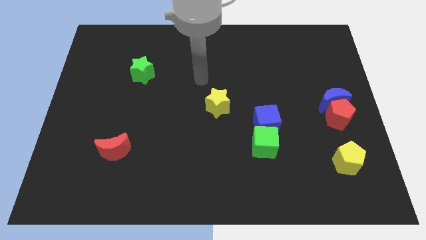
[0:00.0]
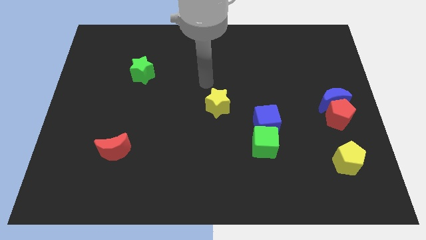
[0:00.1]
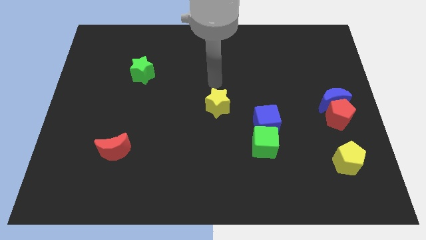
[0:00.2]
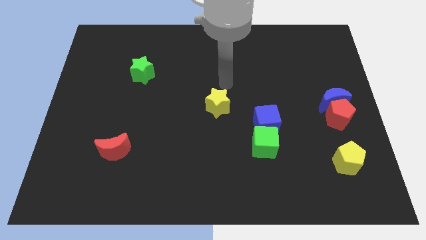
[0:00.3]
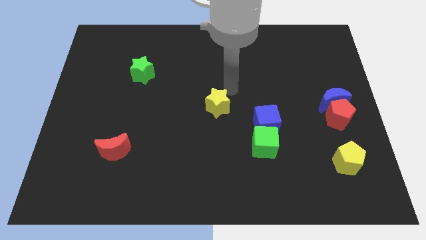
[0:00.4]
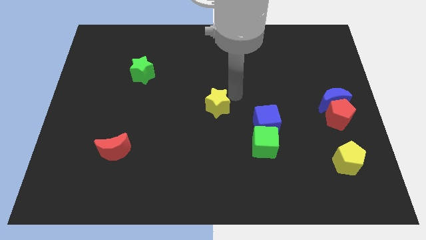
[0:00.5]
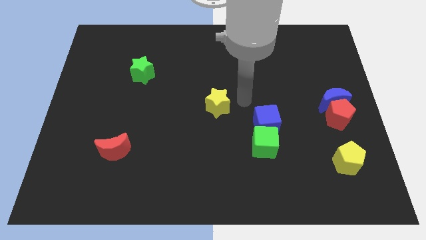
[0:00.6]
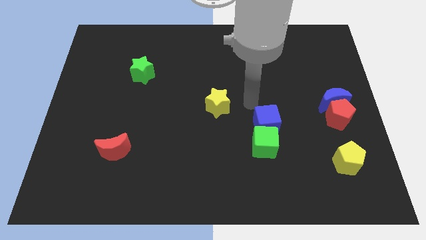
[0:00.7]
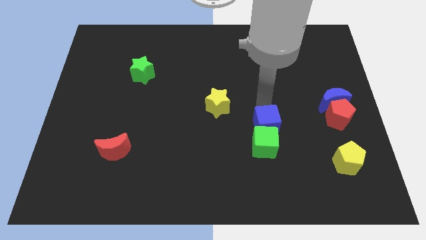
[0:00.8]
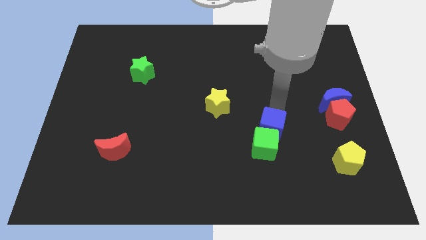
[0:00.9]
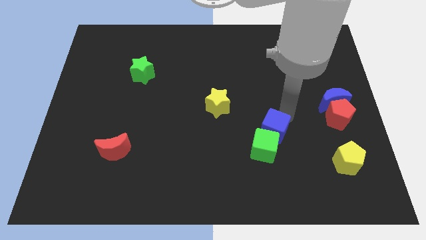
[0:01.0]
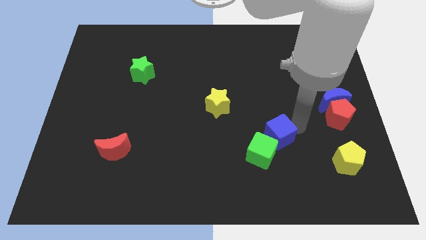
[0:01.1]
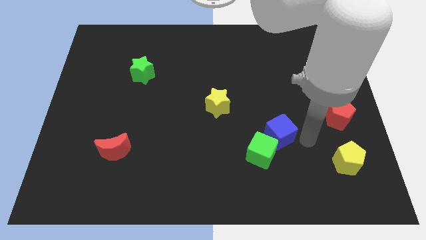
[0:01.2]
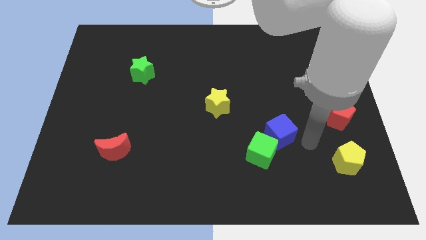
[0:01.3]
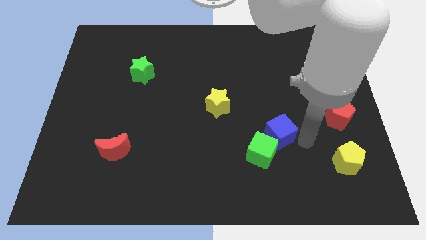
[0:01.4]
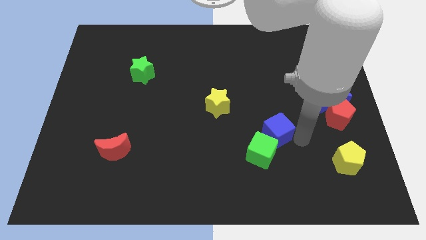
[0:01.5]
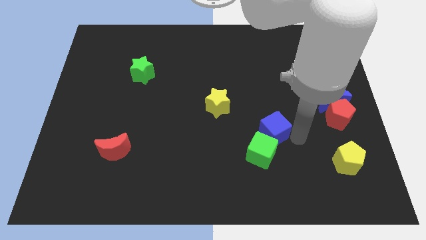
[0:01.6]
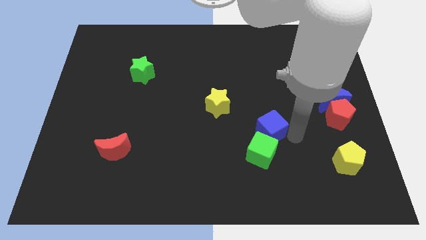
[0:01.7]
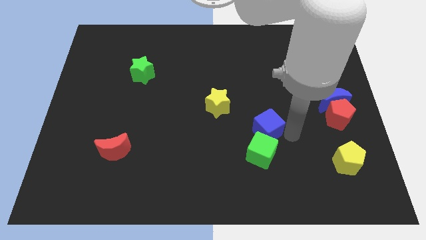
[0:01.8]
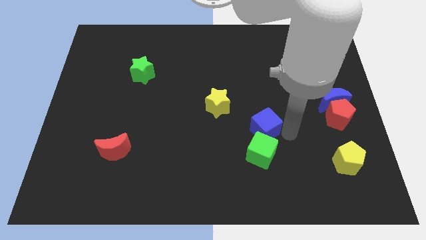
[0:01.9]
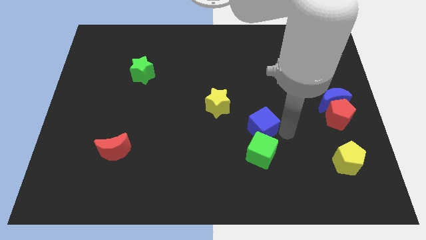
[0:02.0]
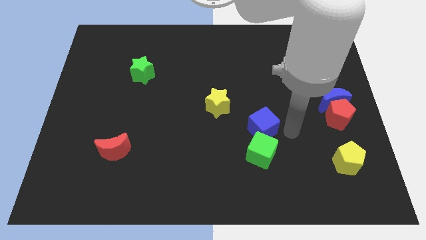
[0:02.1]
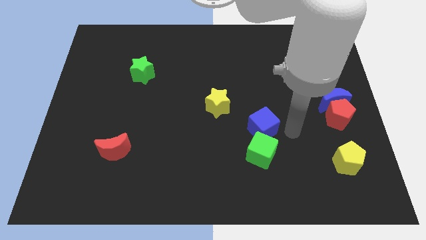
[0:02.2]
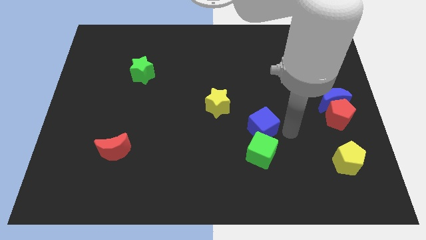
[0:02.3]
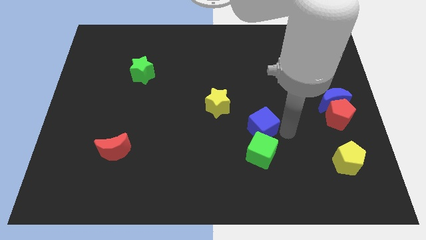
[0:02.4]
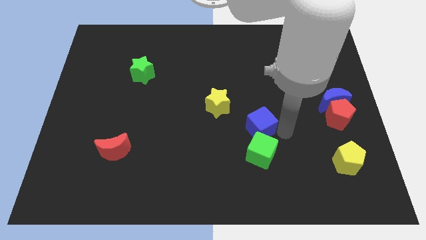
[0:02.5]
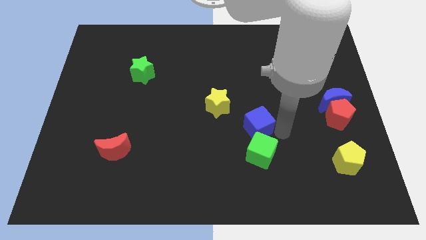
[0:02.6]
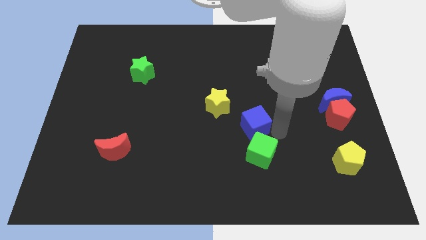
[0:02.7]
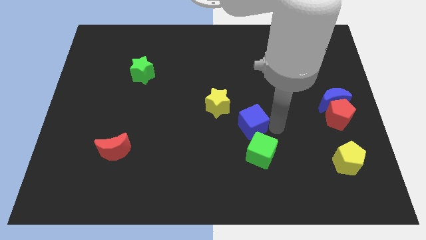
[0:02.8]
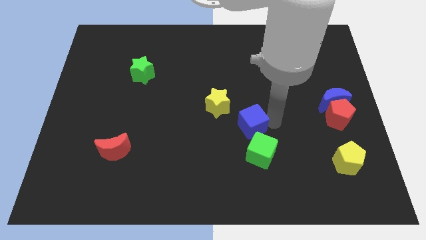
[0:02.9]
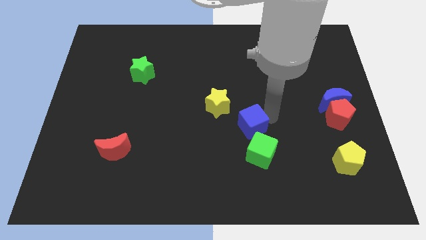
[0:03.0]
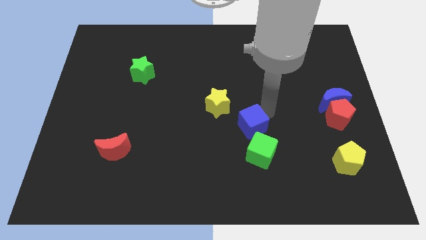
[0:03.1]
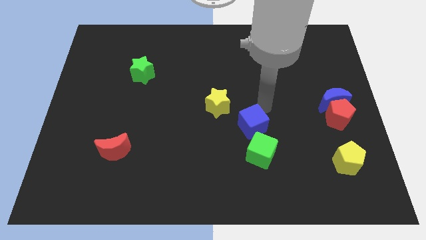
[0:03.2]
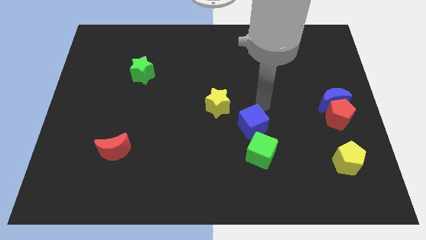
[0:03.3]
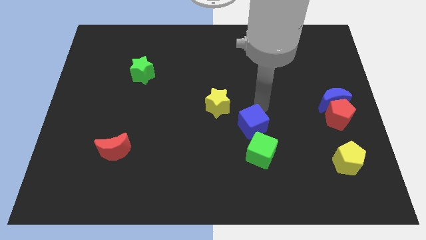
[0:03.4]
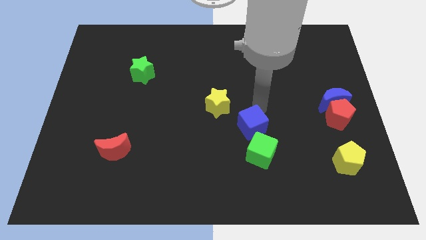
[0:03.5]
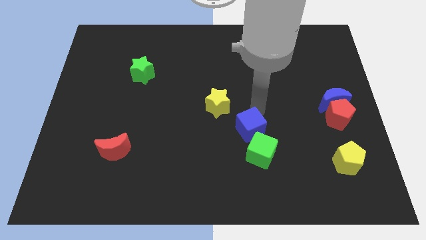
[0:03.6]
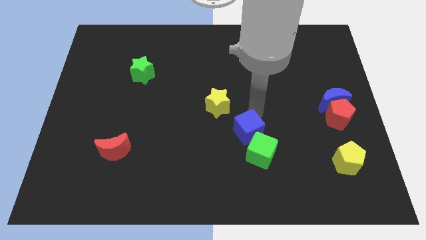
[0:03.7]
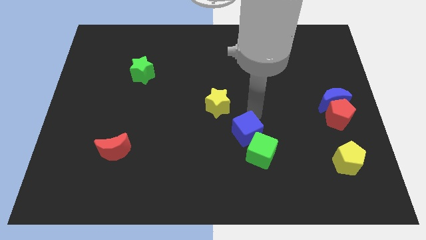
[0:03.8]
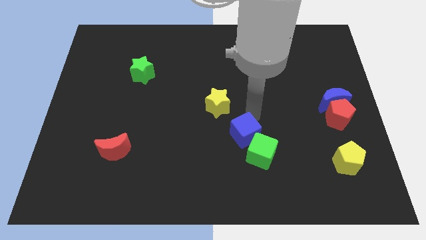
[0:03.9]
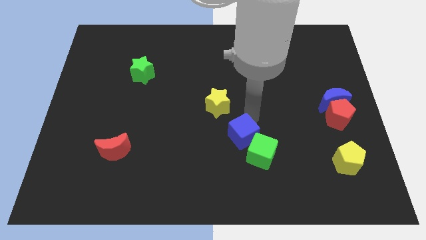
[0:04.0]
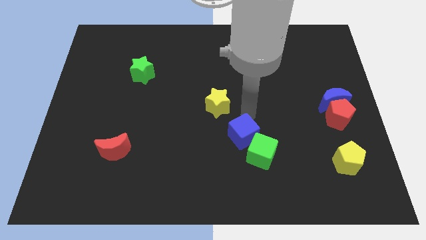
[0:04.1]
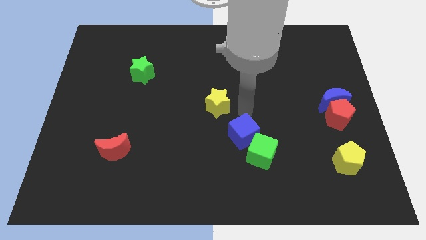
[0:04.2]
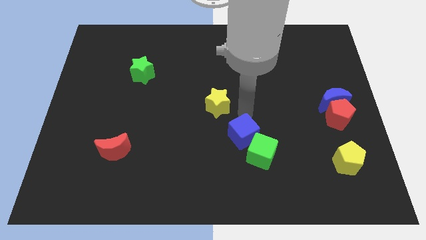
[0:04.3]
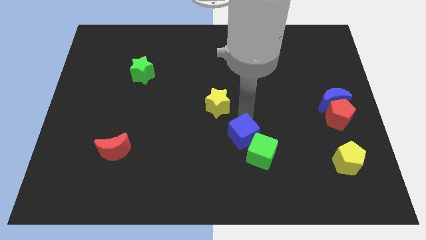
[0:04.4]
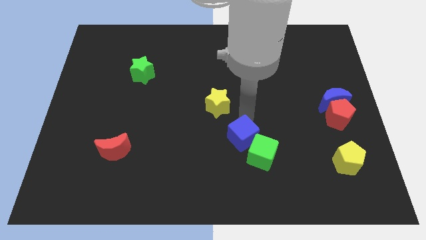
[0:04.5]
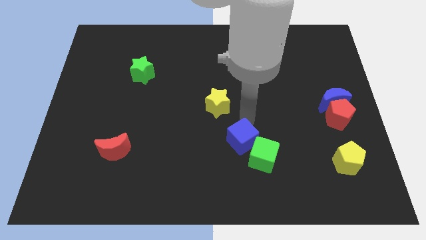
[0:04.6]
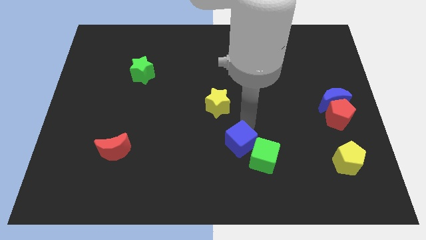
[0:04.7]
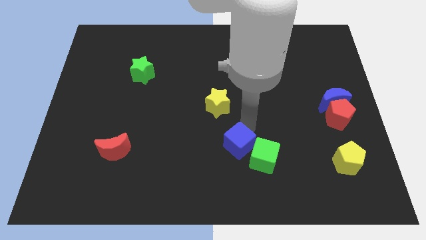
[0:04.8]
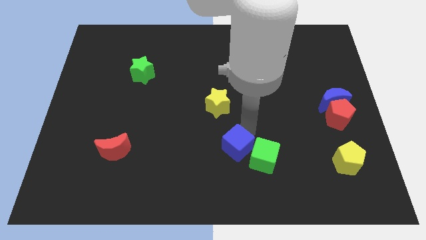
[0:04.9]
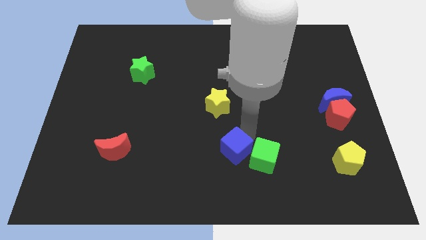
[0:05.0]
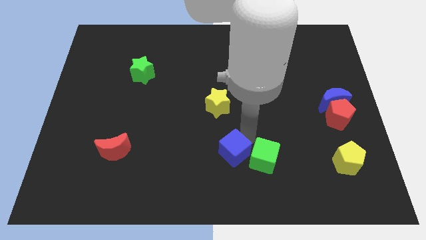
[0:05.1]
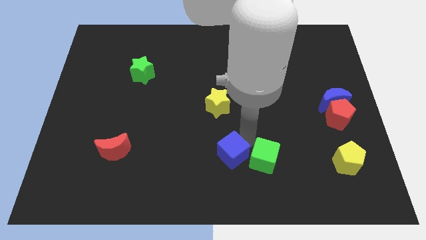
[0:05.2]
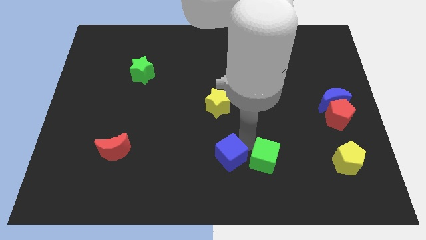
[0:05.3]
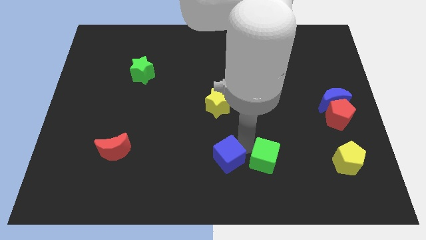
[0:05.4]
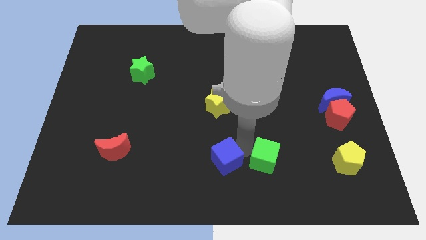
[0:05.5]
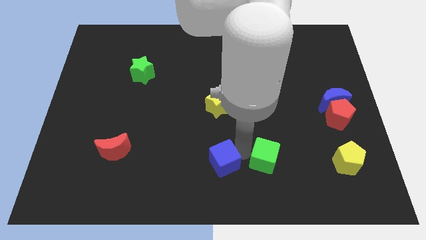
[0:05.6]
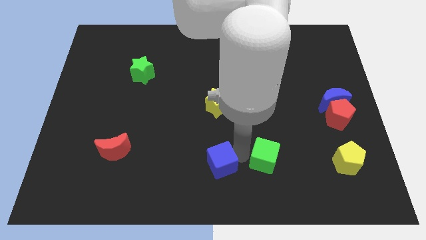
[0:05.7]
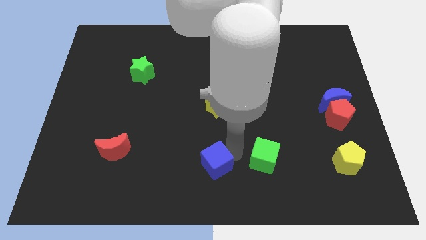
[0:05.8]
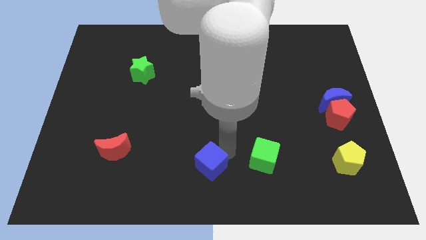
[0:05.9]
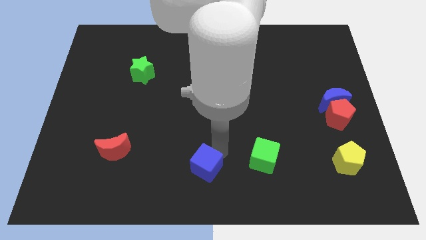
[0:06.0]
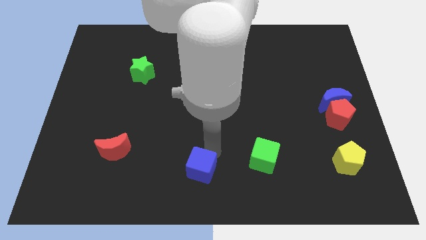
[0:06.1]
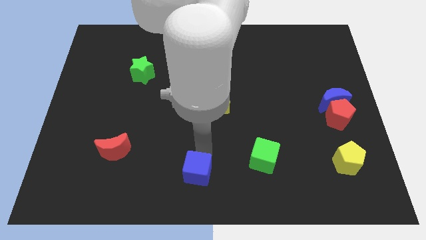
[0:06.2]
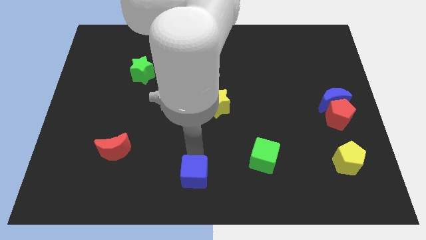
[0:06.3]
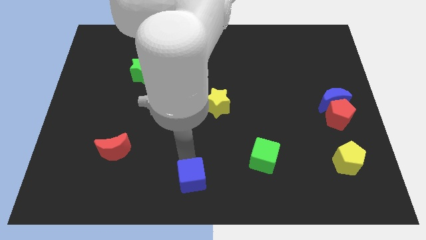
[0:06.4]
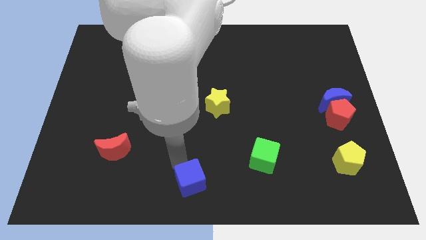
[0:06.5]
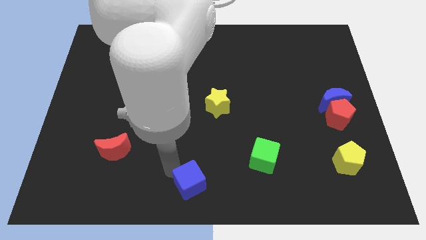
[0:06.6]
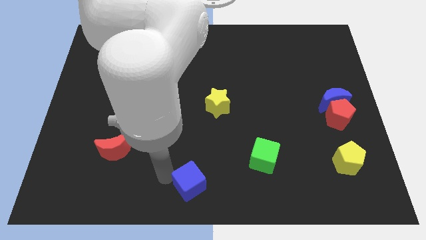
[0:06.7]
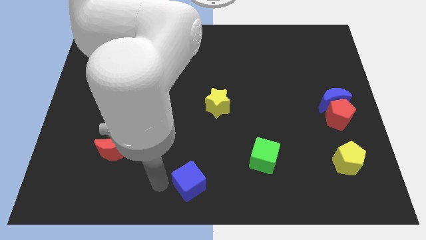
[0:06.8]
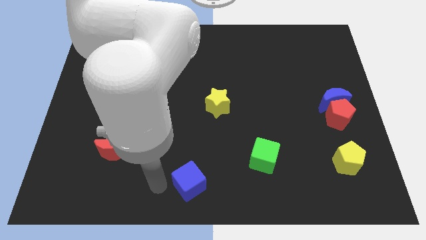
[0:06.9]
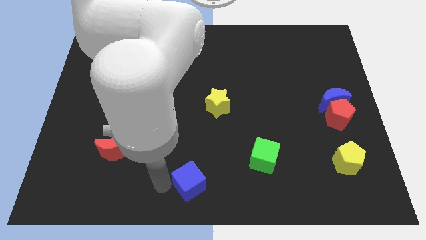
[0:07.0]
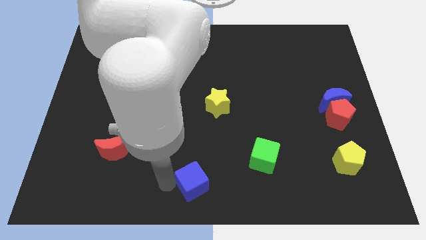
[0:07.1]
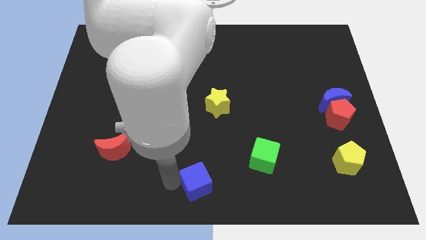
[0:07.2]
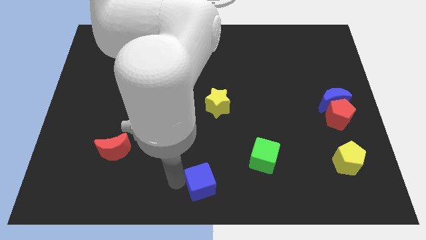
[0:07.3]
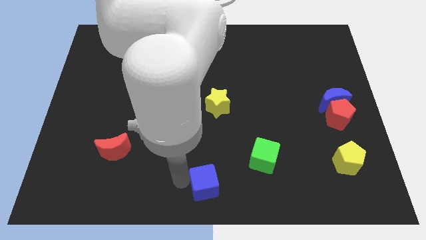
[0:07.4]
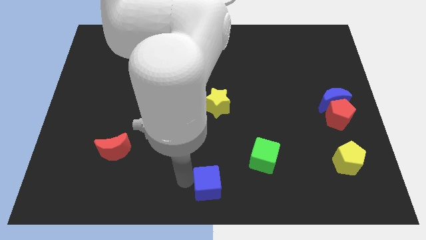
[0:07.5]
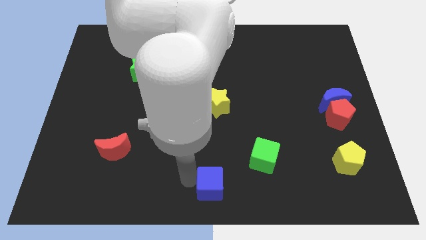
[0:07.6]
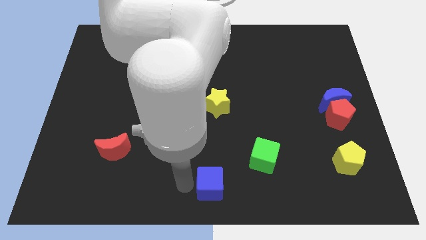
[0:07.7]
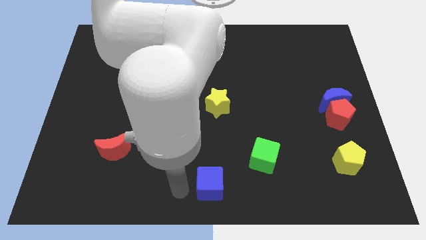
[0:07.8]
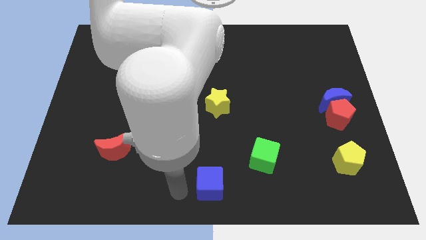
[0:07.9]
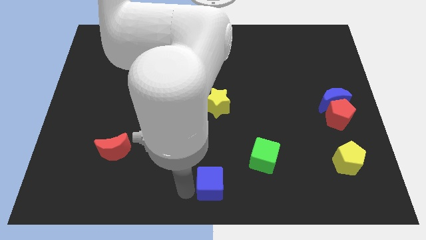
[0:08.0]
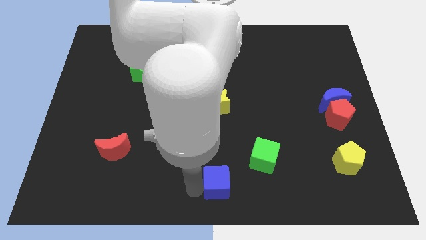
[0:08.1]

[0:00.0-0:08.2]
put the blue cube to the bottom left side of the green cube
